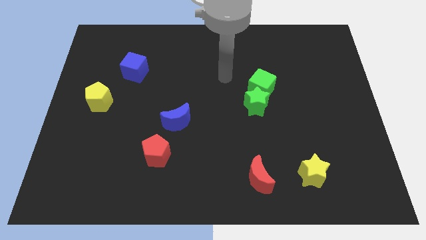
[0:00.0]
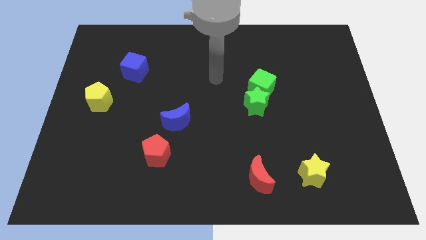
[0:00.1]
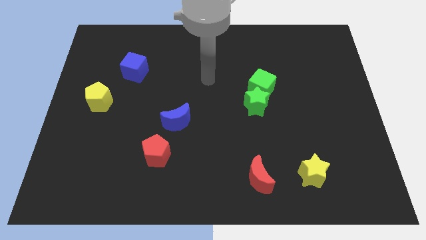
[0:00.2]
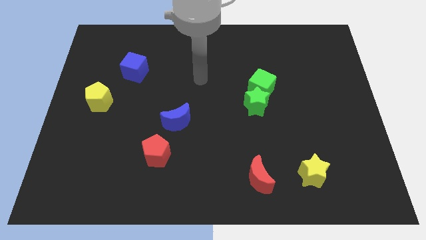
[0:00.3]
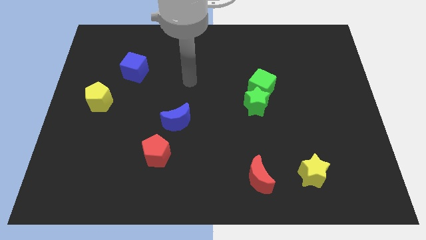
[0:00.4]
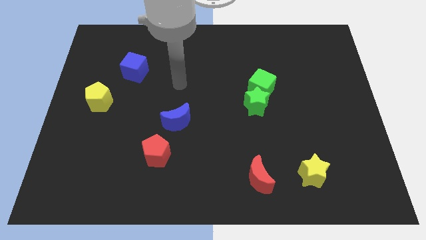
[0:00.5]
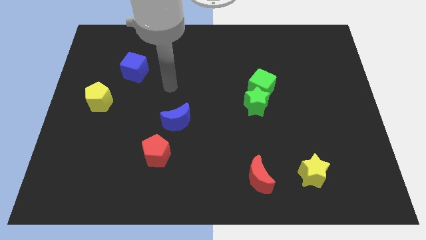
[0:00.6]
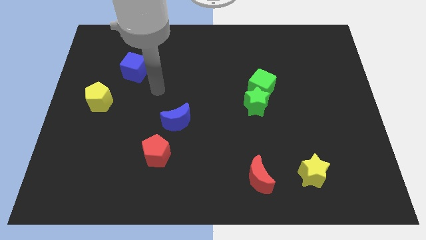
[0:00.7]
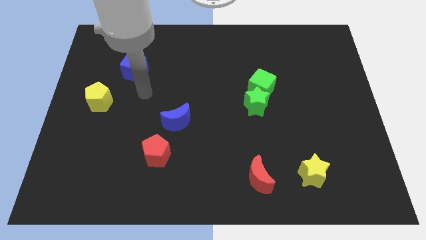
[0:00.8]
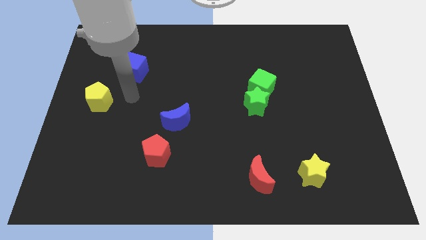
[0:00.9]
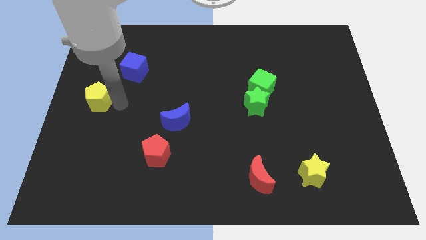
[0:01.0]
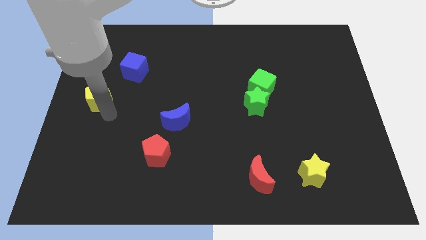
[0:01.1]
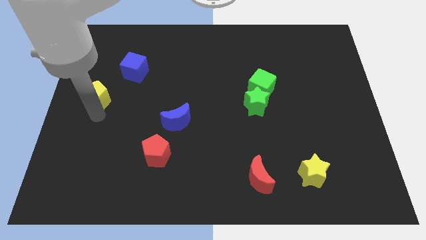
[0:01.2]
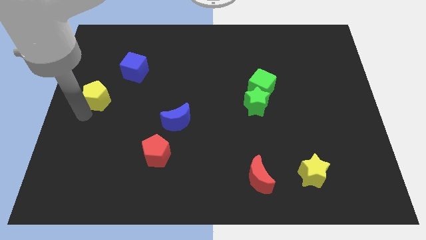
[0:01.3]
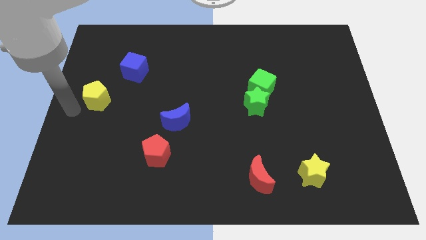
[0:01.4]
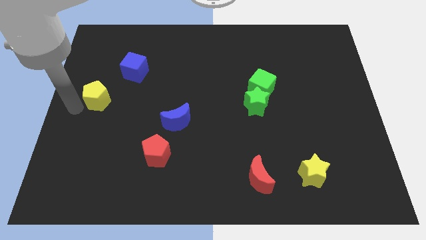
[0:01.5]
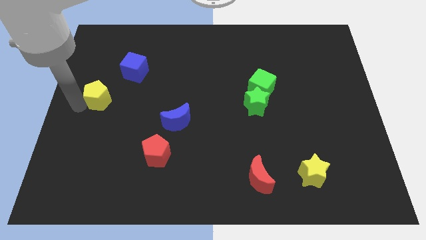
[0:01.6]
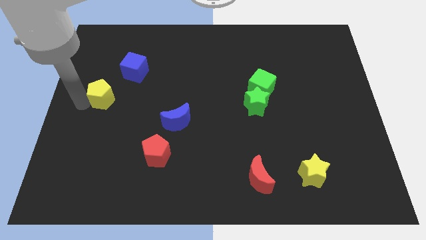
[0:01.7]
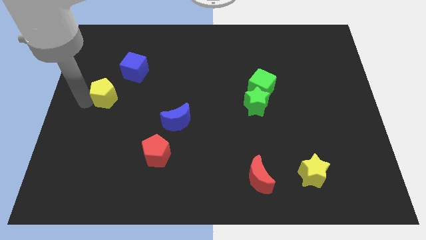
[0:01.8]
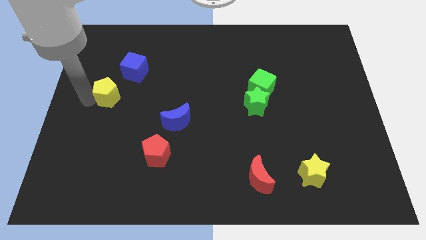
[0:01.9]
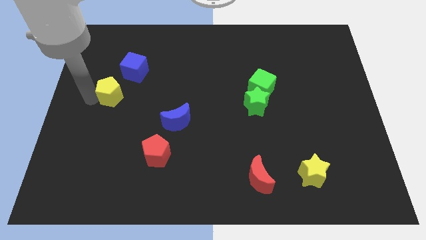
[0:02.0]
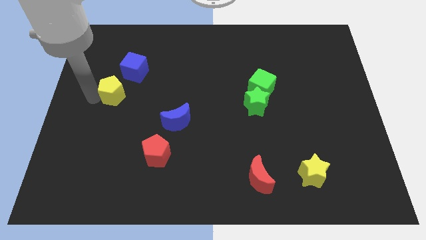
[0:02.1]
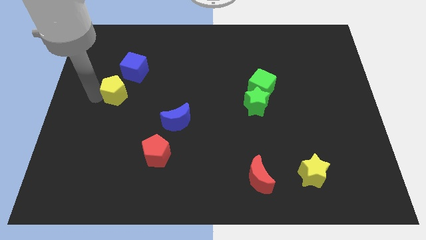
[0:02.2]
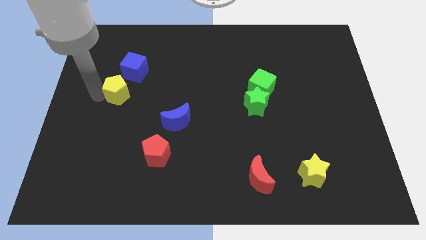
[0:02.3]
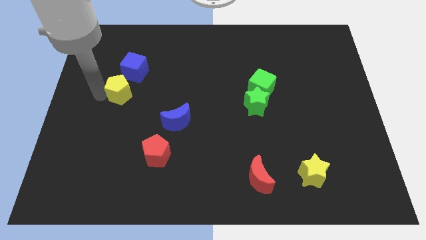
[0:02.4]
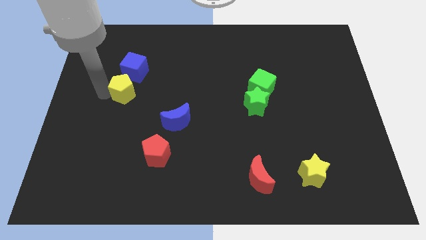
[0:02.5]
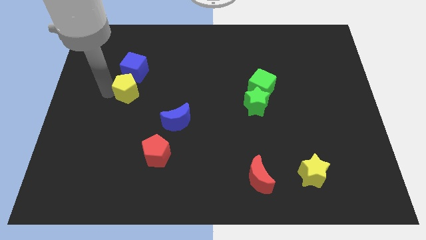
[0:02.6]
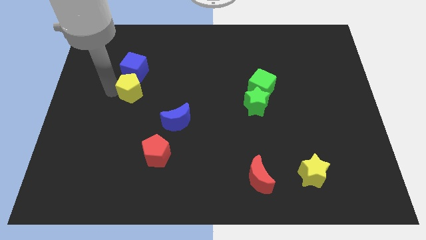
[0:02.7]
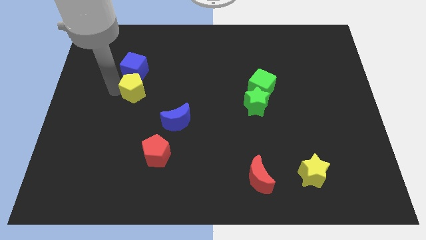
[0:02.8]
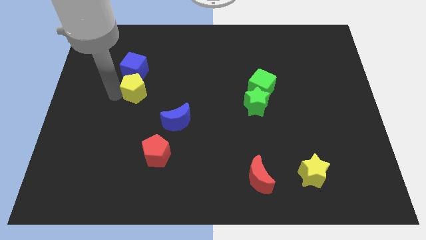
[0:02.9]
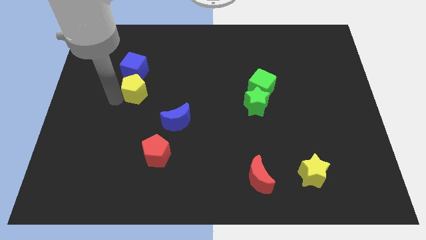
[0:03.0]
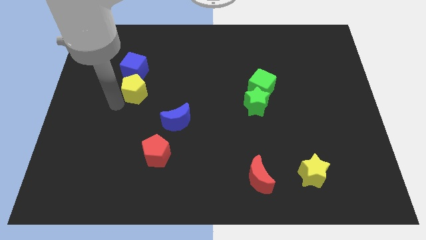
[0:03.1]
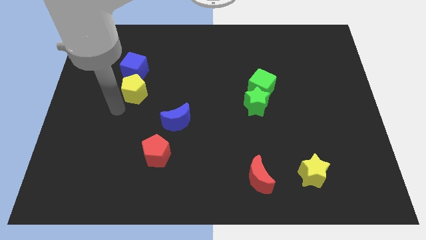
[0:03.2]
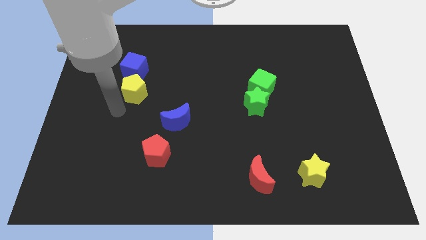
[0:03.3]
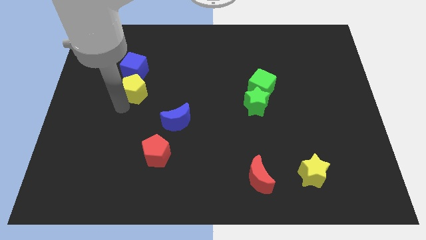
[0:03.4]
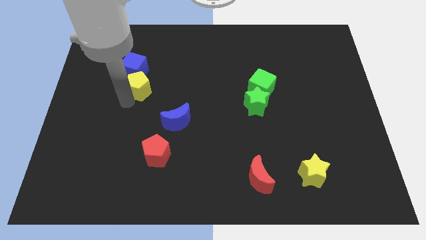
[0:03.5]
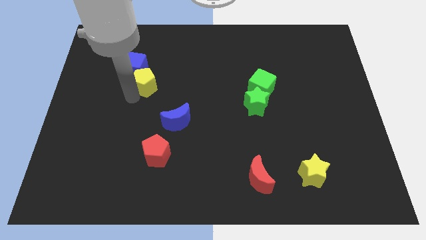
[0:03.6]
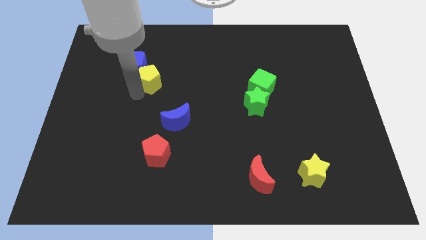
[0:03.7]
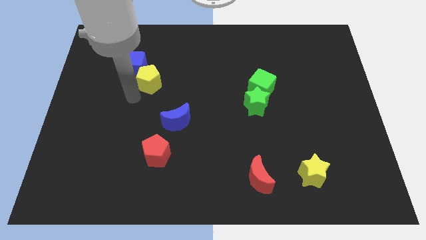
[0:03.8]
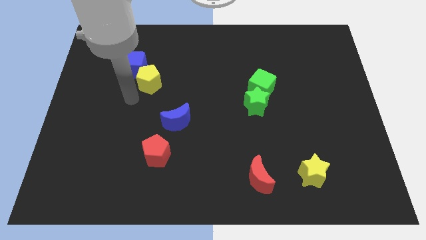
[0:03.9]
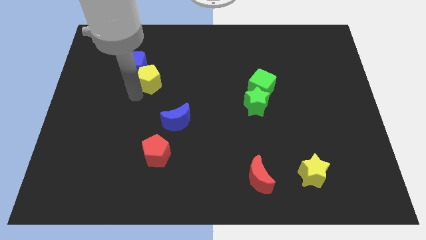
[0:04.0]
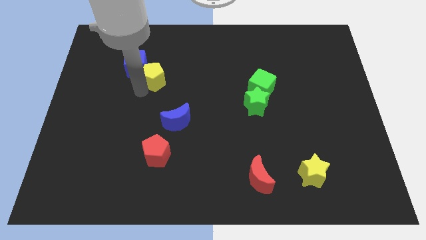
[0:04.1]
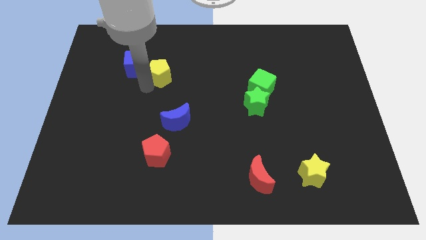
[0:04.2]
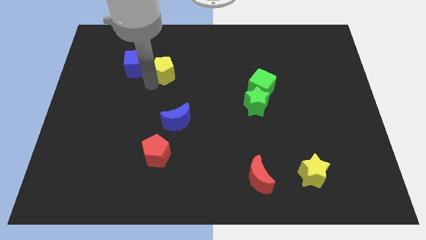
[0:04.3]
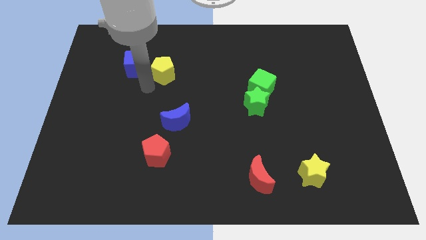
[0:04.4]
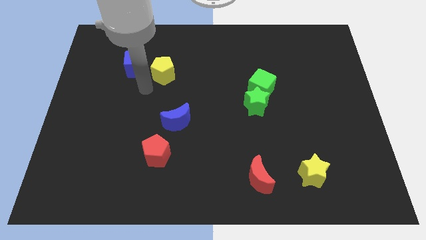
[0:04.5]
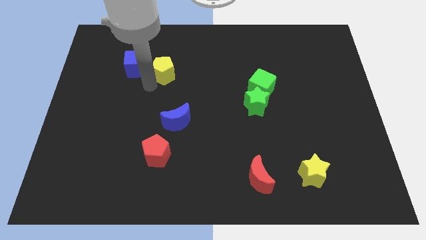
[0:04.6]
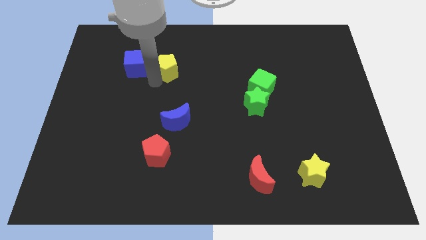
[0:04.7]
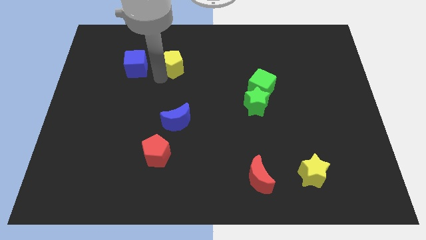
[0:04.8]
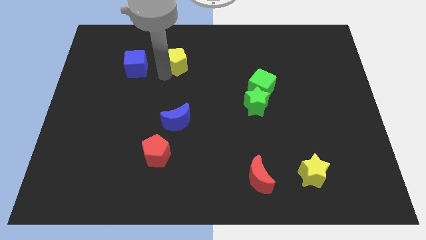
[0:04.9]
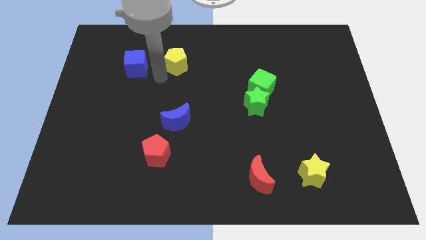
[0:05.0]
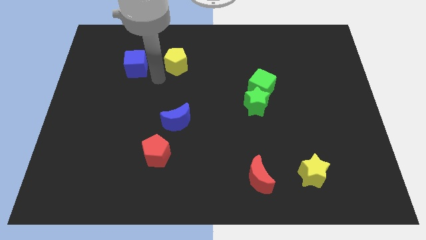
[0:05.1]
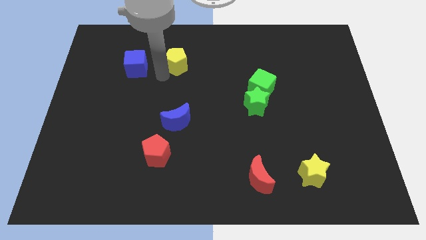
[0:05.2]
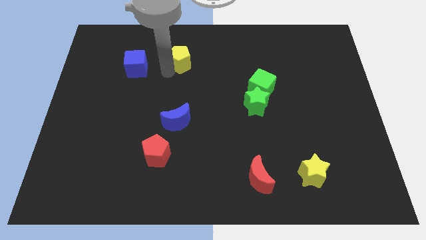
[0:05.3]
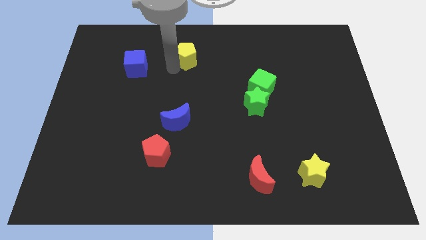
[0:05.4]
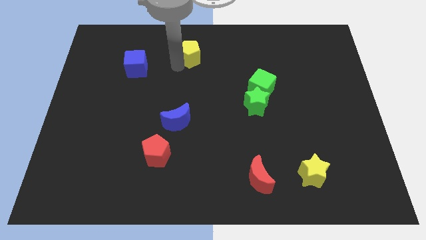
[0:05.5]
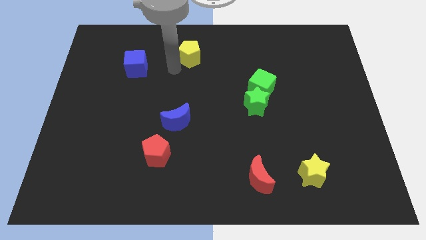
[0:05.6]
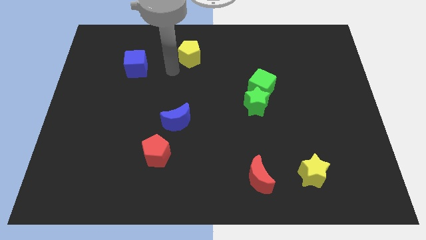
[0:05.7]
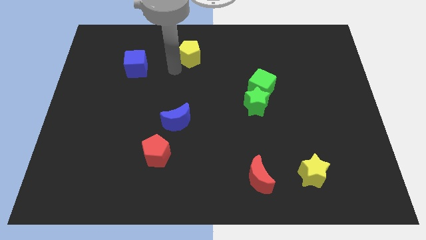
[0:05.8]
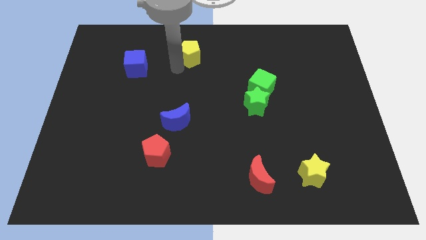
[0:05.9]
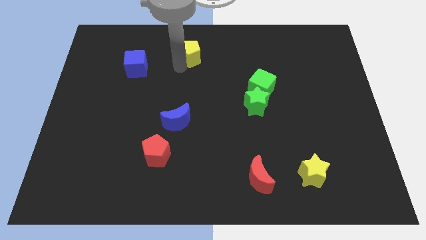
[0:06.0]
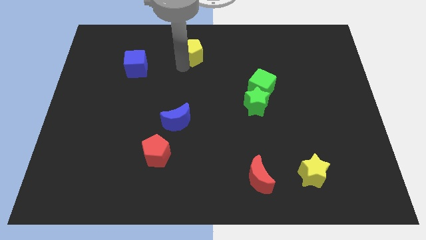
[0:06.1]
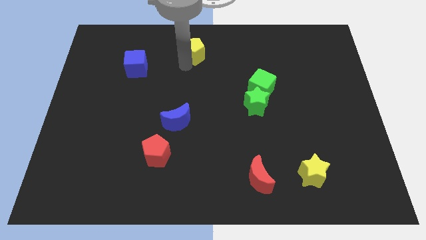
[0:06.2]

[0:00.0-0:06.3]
slide the yellow pentagon to the top

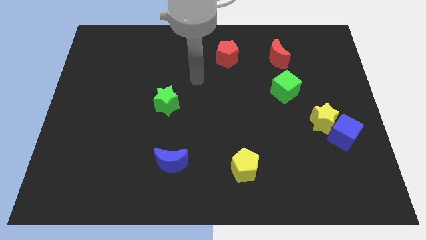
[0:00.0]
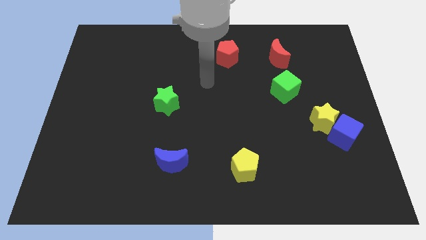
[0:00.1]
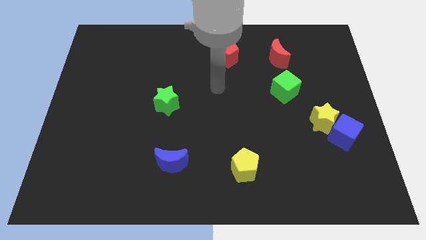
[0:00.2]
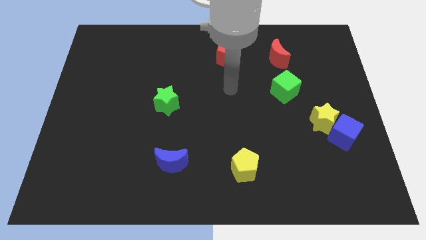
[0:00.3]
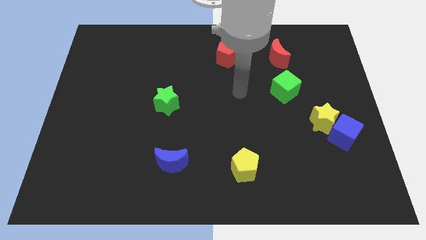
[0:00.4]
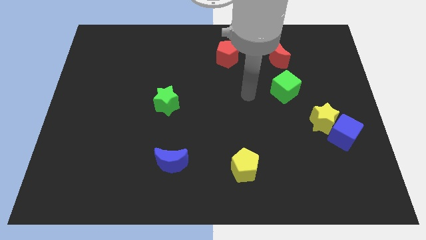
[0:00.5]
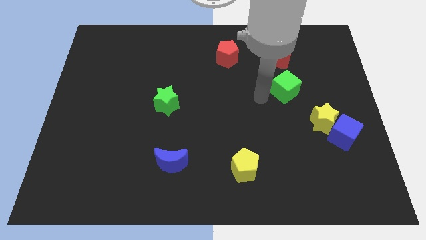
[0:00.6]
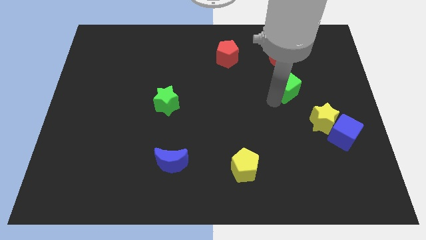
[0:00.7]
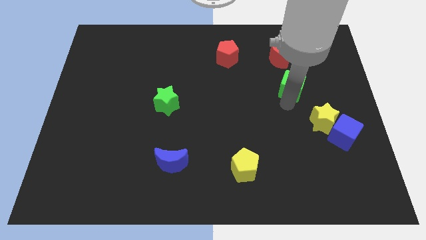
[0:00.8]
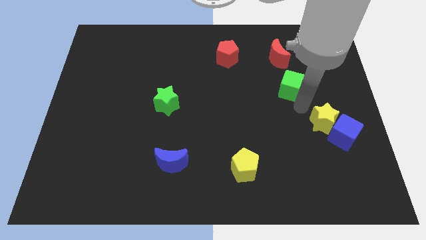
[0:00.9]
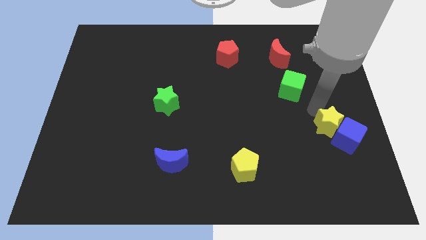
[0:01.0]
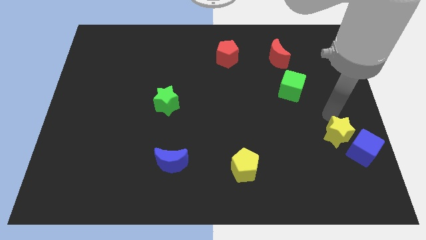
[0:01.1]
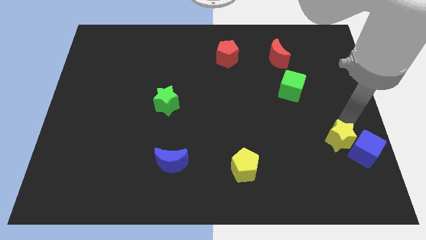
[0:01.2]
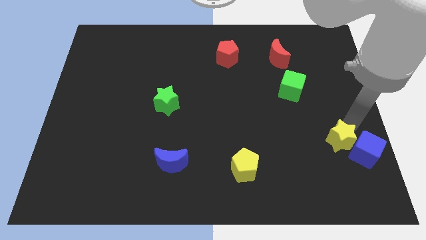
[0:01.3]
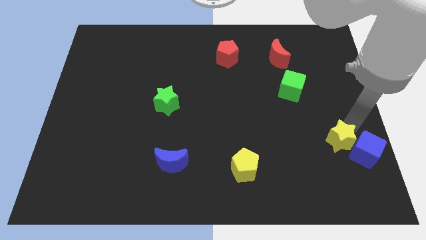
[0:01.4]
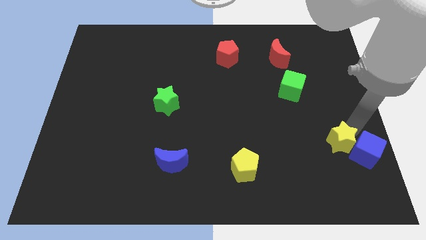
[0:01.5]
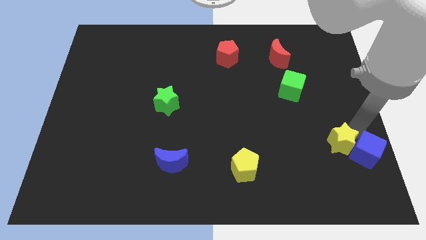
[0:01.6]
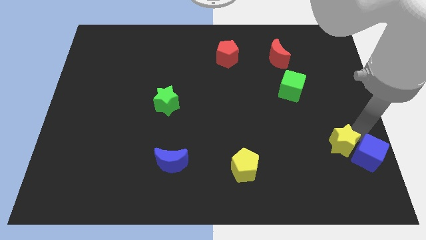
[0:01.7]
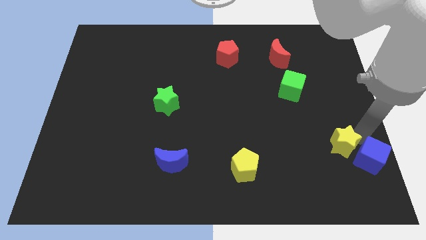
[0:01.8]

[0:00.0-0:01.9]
slide the blue cube to the bottom right of the board
